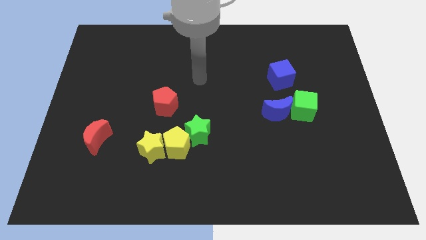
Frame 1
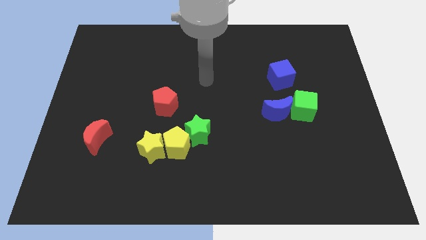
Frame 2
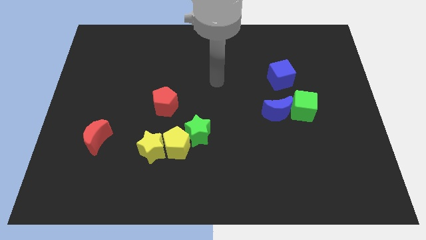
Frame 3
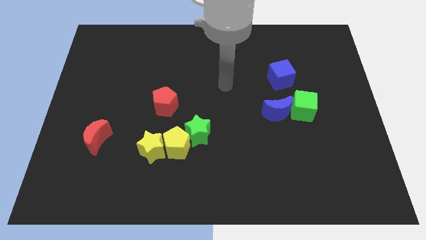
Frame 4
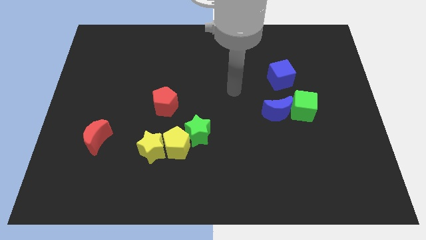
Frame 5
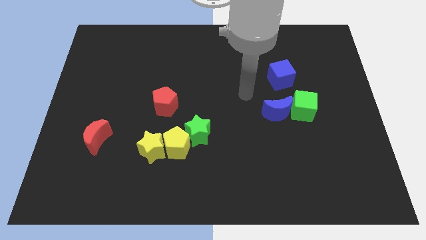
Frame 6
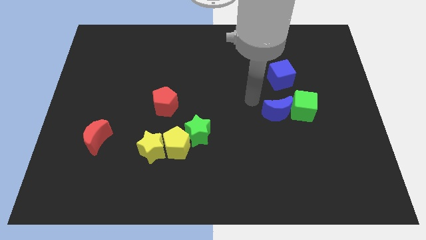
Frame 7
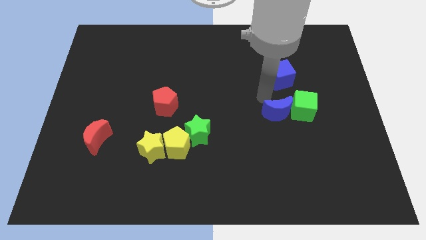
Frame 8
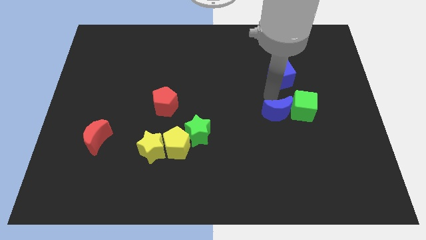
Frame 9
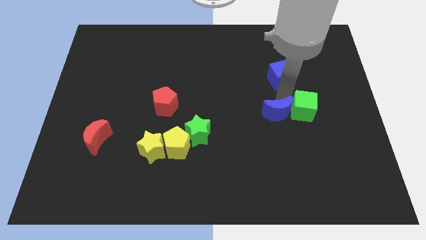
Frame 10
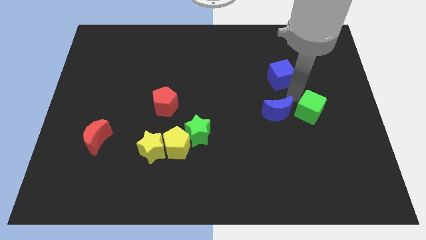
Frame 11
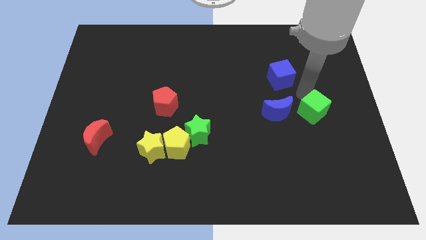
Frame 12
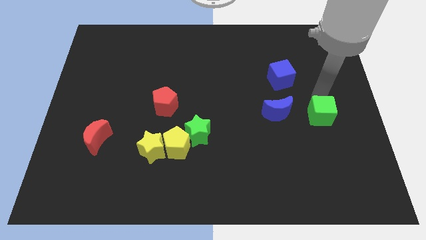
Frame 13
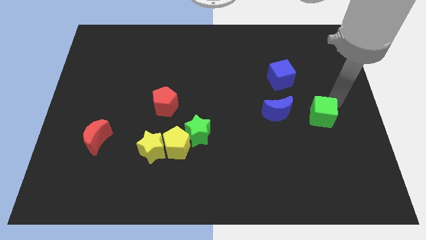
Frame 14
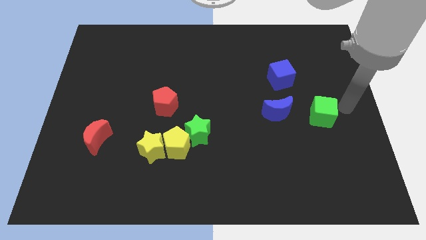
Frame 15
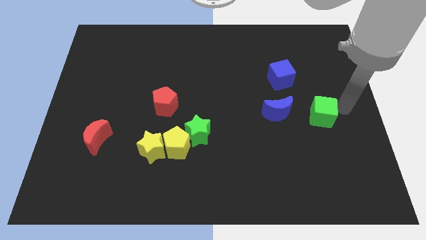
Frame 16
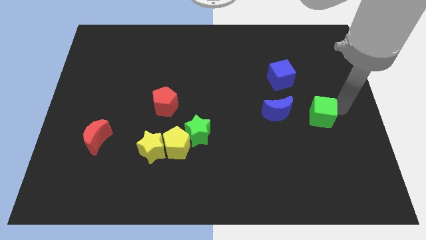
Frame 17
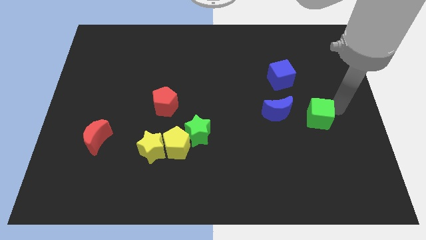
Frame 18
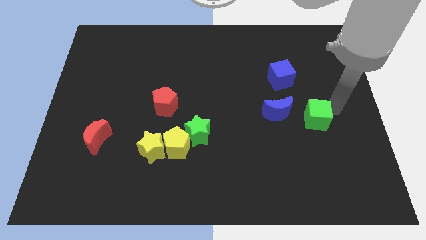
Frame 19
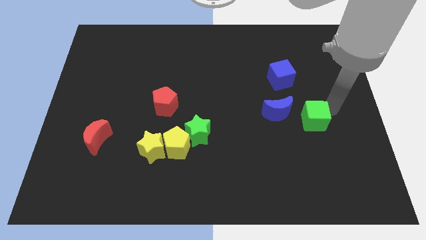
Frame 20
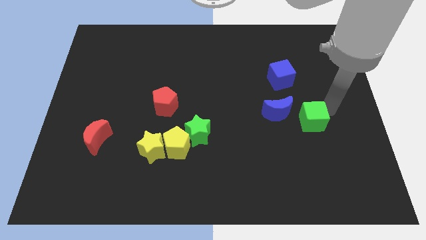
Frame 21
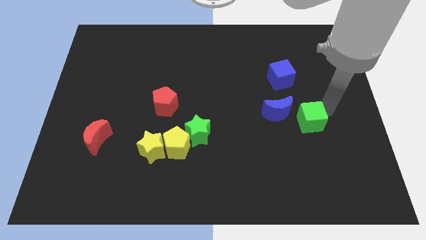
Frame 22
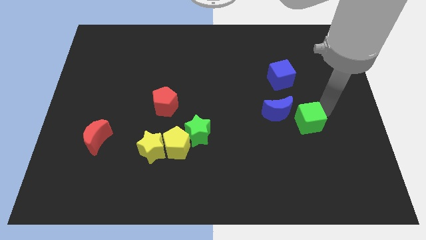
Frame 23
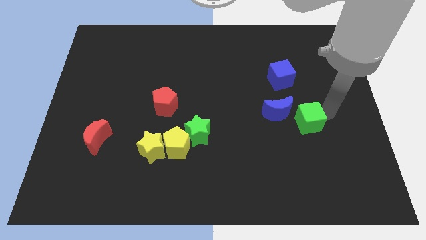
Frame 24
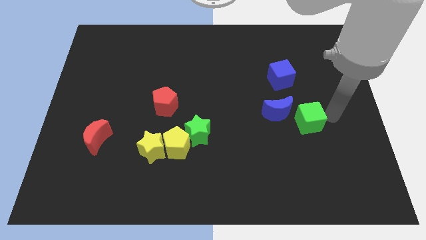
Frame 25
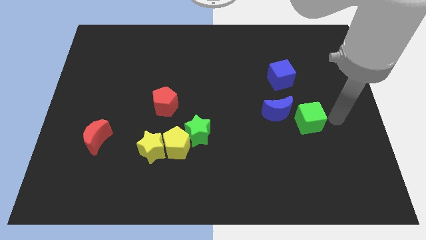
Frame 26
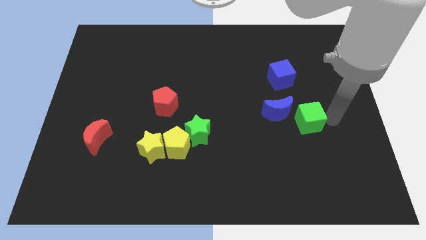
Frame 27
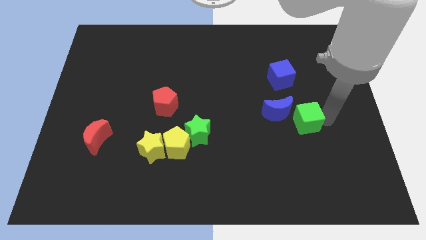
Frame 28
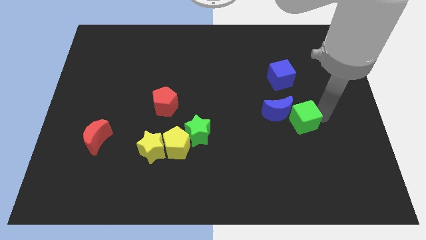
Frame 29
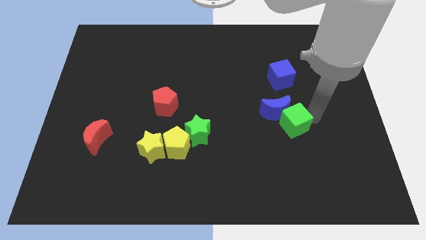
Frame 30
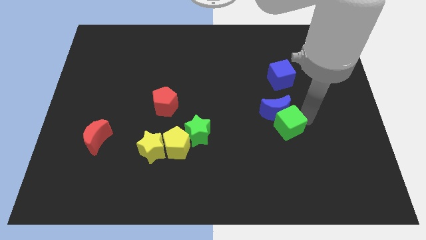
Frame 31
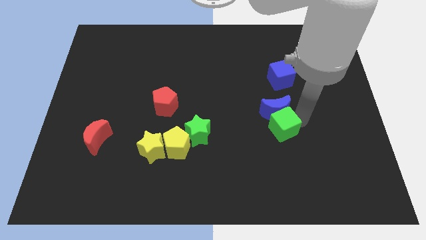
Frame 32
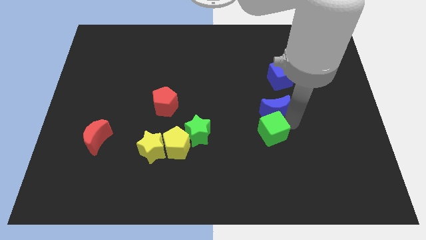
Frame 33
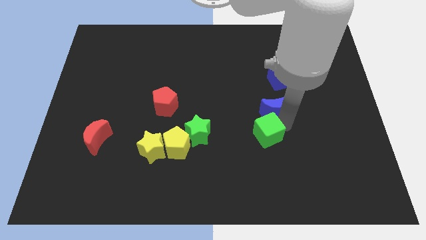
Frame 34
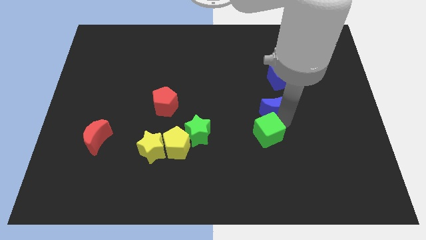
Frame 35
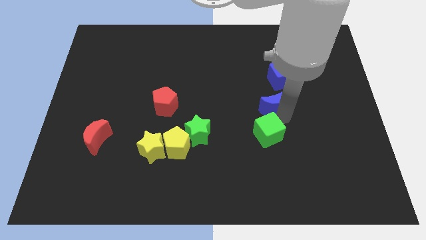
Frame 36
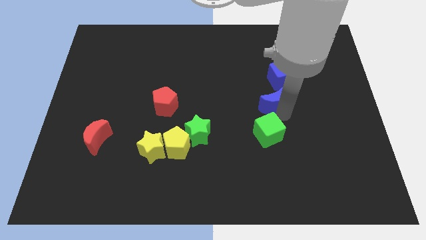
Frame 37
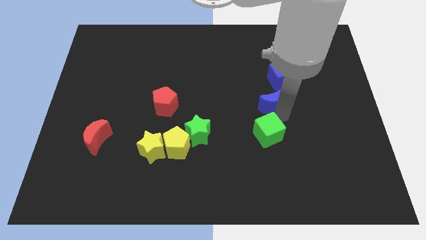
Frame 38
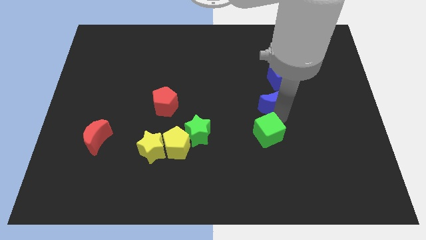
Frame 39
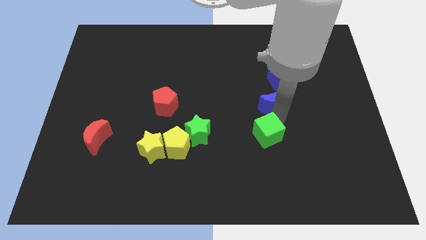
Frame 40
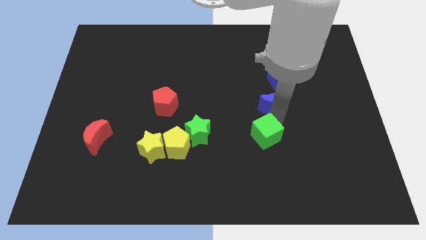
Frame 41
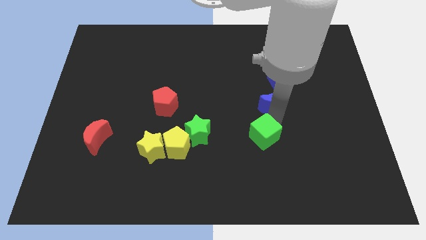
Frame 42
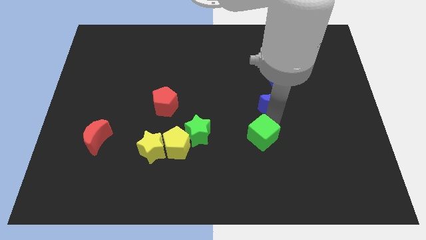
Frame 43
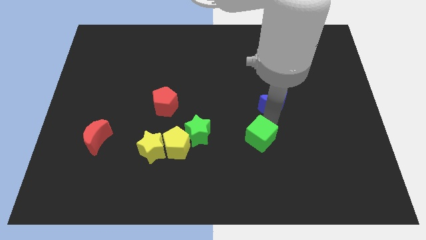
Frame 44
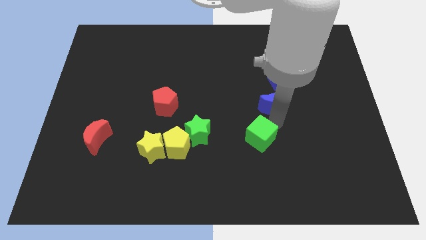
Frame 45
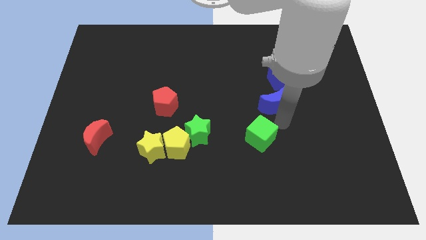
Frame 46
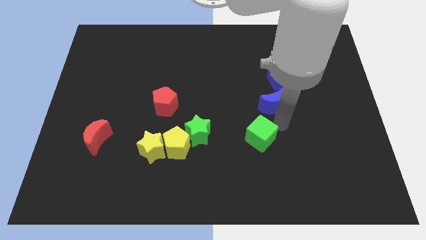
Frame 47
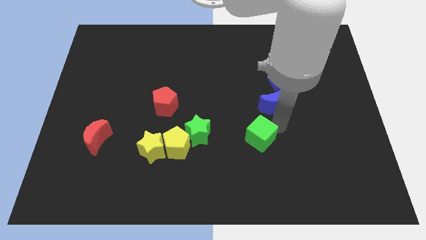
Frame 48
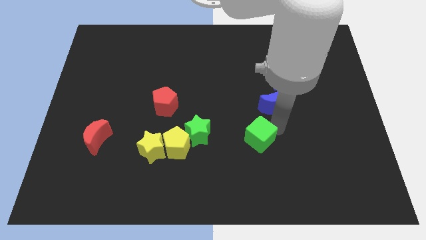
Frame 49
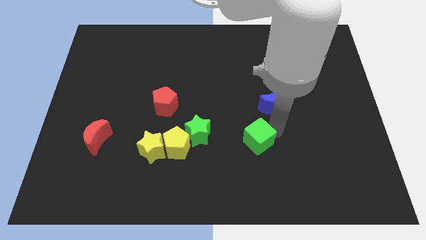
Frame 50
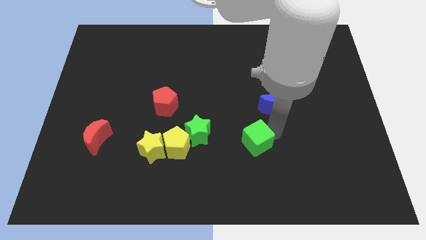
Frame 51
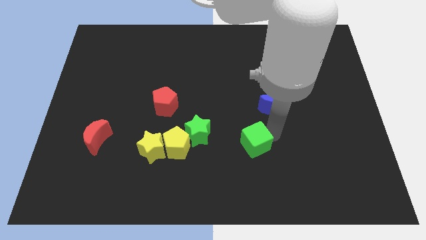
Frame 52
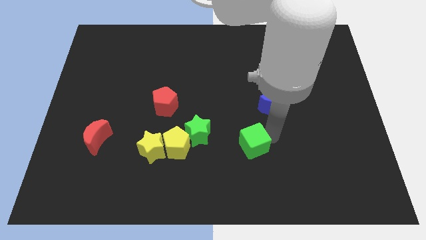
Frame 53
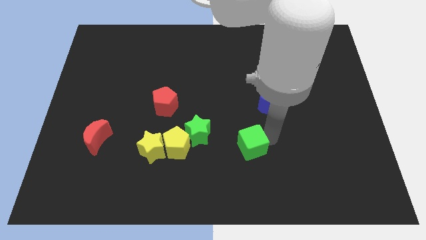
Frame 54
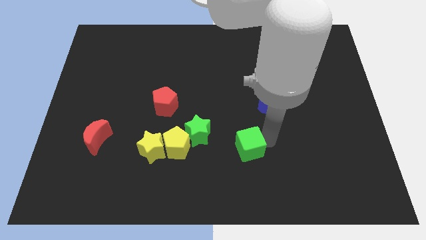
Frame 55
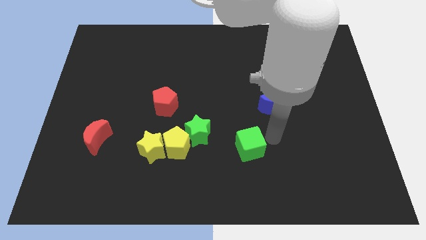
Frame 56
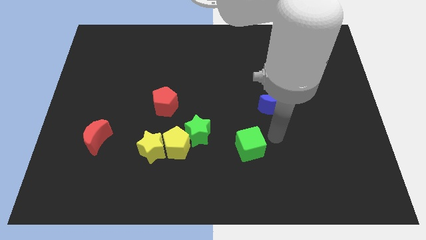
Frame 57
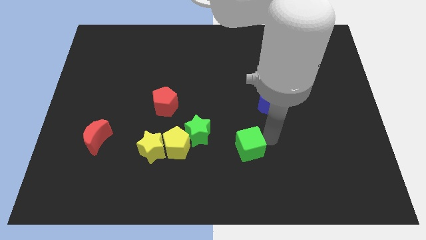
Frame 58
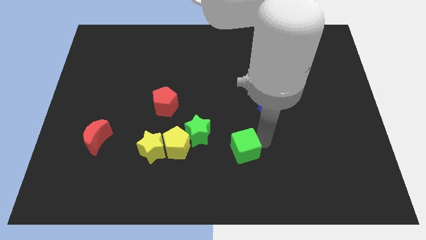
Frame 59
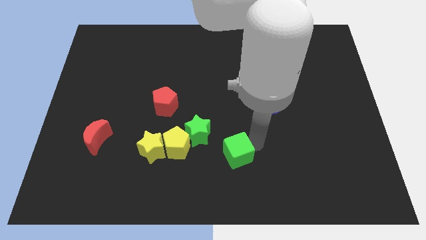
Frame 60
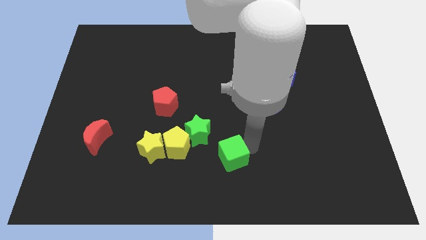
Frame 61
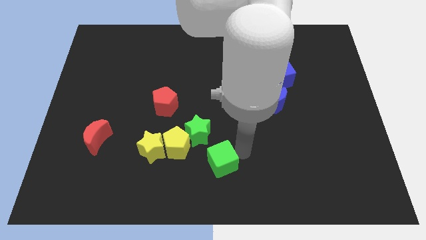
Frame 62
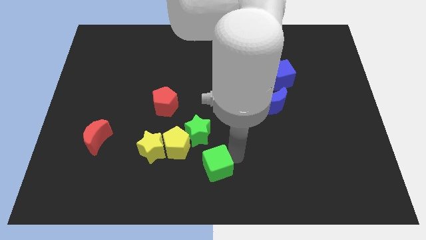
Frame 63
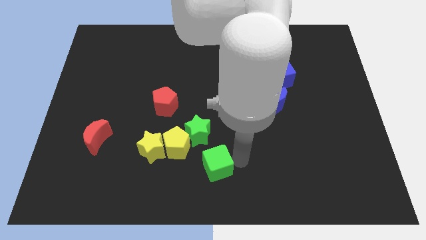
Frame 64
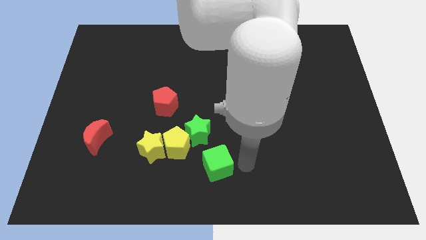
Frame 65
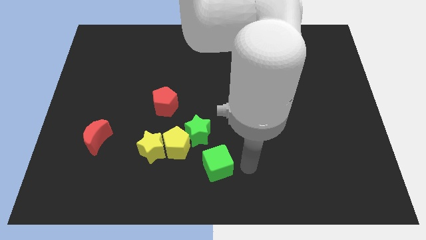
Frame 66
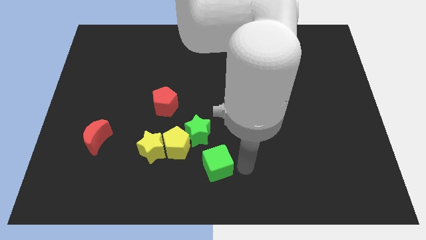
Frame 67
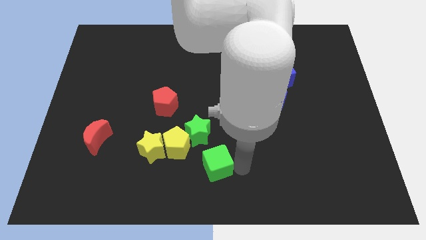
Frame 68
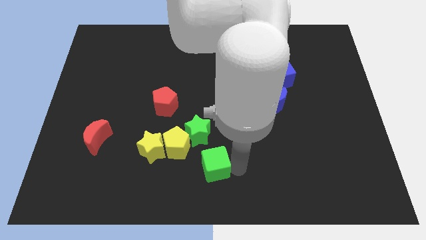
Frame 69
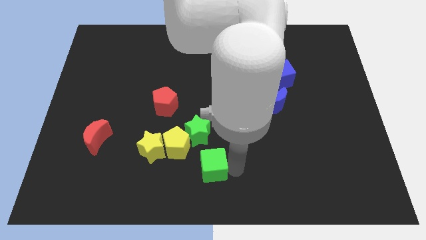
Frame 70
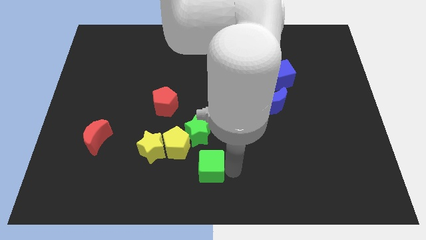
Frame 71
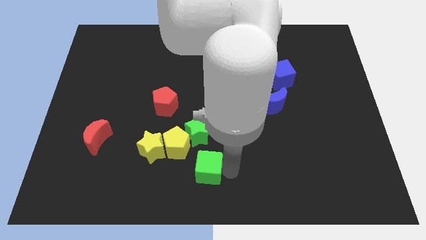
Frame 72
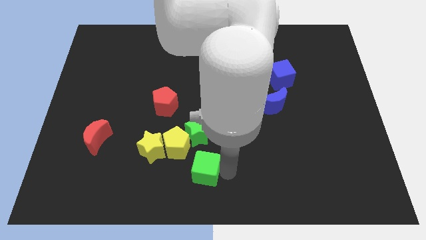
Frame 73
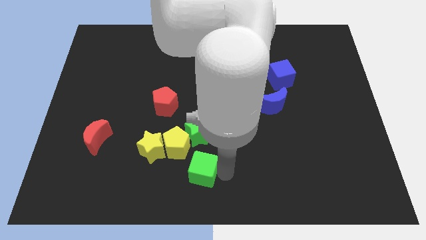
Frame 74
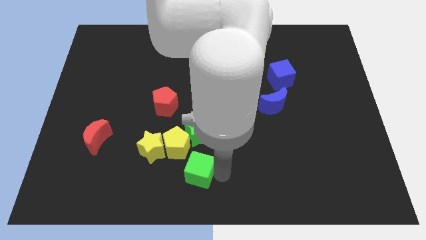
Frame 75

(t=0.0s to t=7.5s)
slide the green cube to the bottom right side of the yellow star

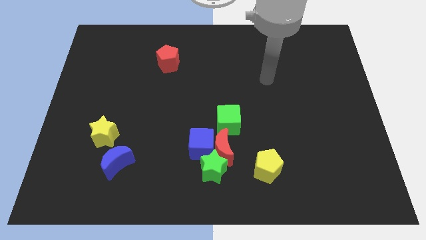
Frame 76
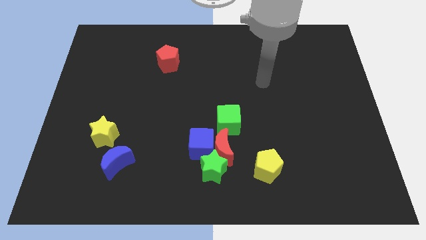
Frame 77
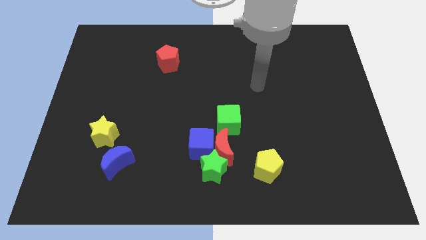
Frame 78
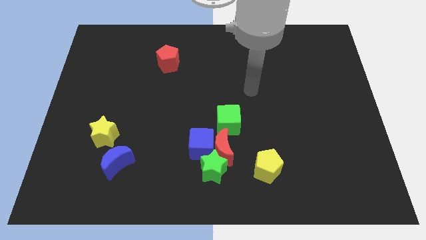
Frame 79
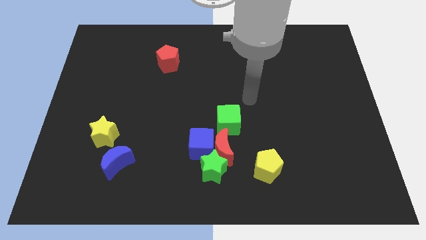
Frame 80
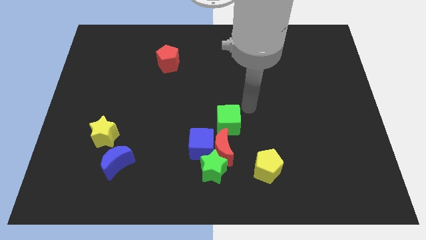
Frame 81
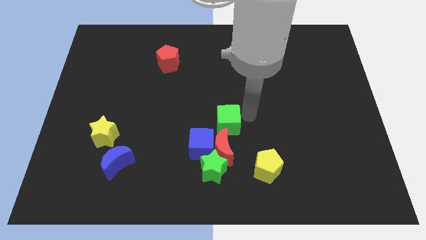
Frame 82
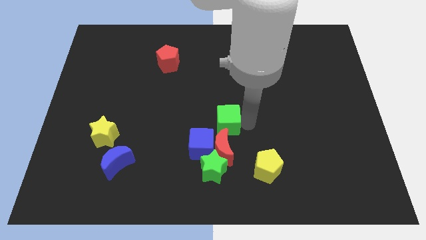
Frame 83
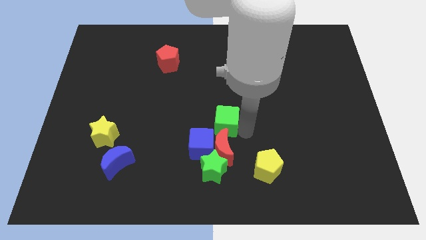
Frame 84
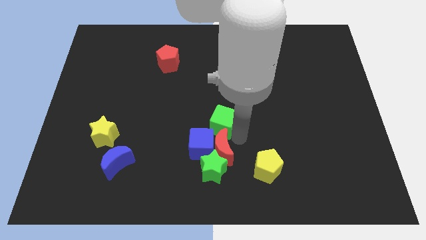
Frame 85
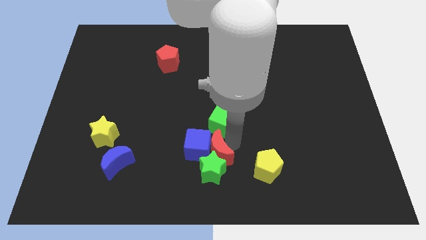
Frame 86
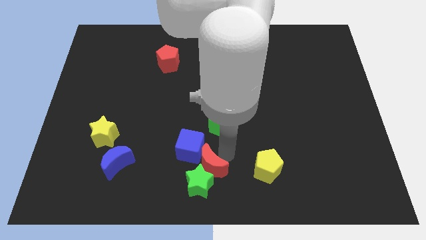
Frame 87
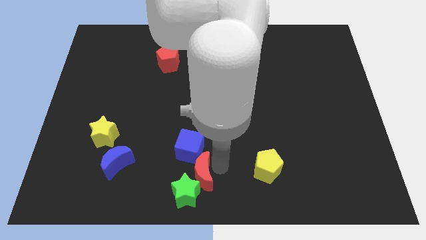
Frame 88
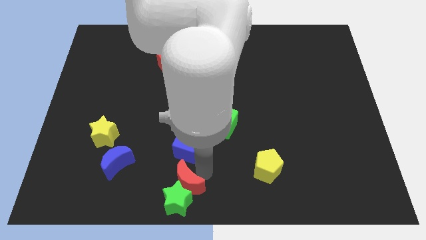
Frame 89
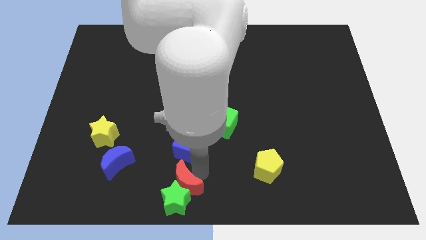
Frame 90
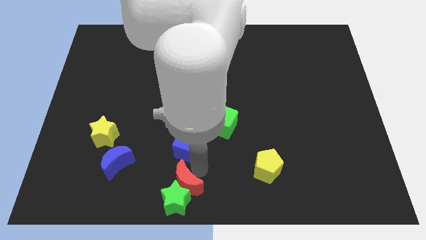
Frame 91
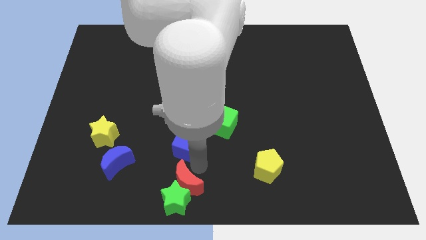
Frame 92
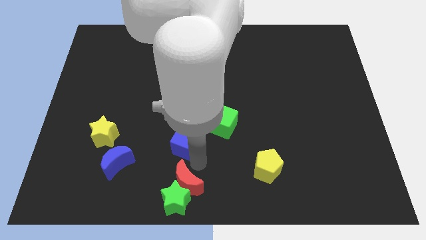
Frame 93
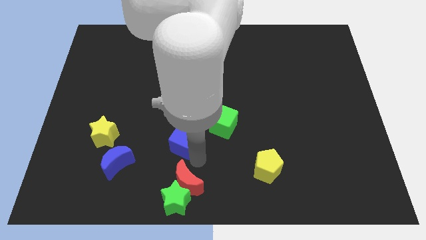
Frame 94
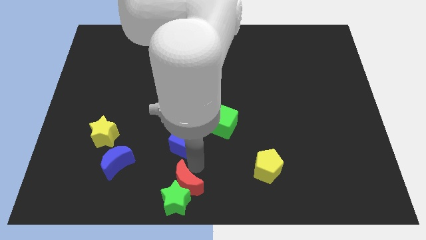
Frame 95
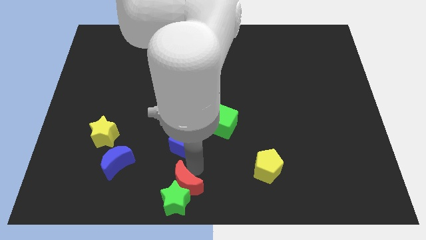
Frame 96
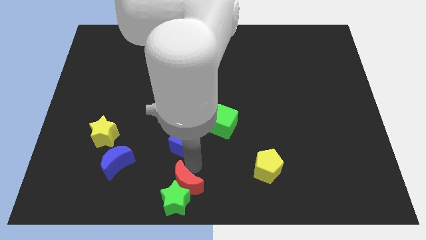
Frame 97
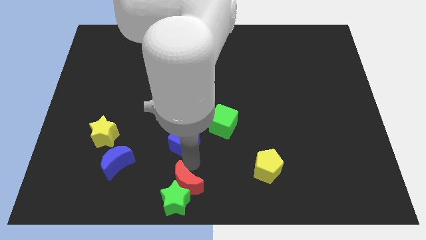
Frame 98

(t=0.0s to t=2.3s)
put the blue cube to the left side of the green cube
